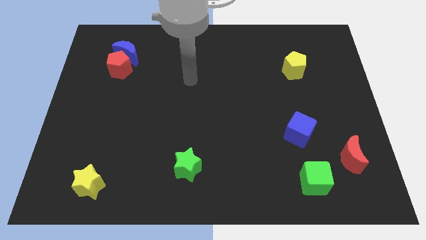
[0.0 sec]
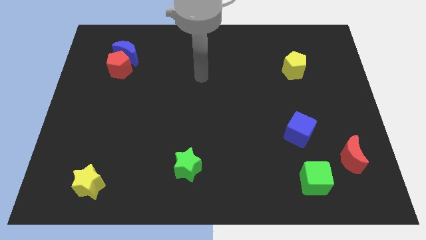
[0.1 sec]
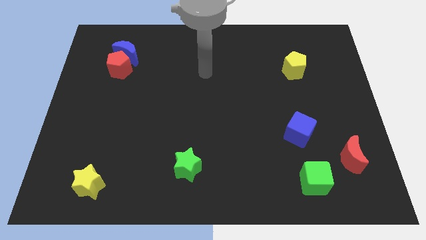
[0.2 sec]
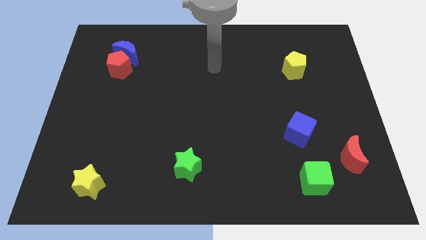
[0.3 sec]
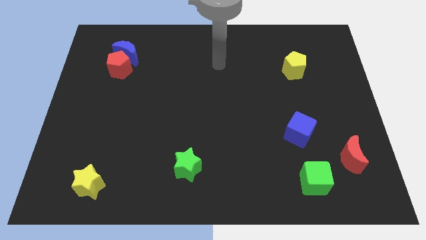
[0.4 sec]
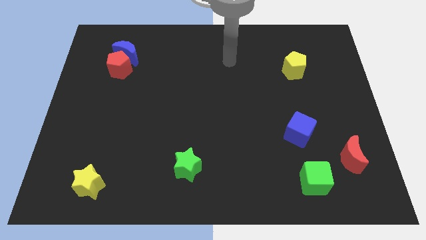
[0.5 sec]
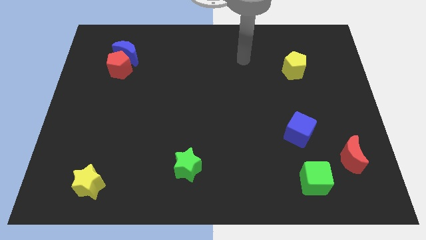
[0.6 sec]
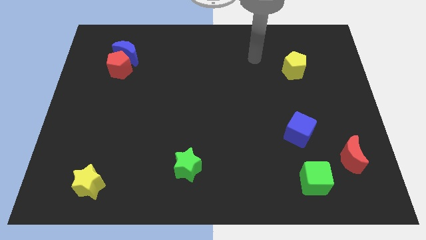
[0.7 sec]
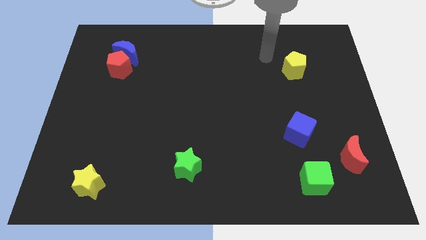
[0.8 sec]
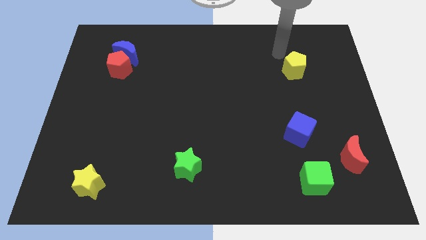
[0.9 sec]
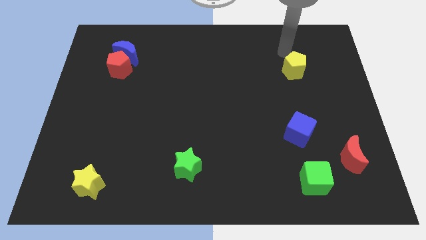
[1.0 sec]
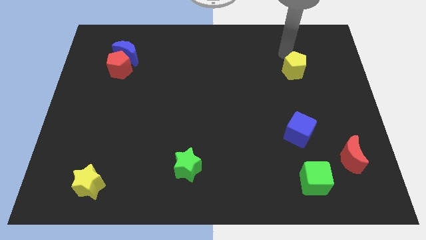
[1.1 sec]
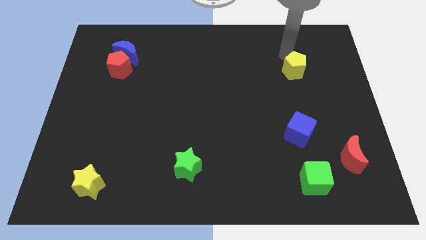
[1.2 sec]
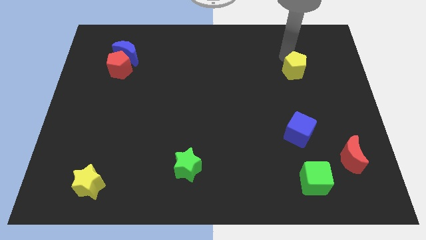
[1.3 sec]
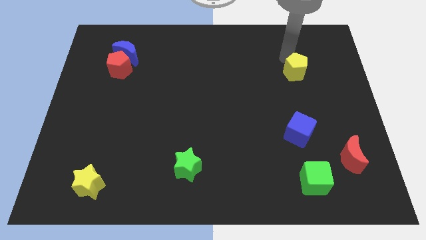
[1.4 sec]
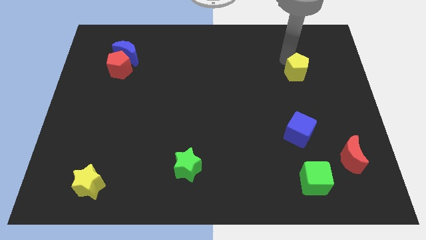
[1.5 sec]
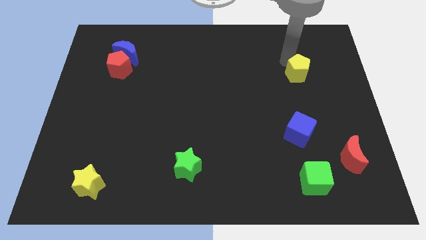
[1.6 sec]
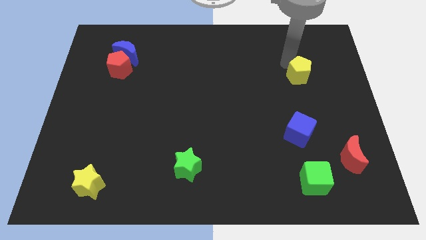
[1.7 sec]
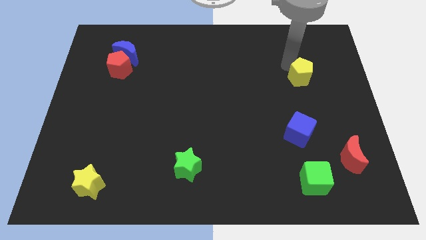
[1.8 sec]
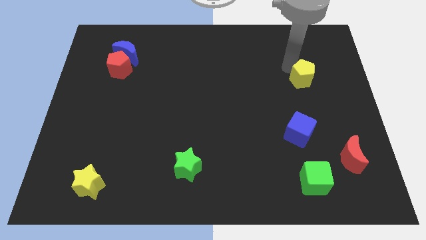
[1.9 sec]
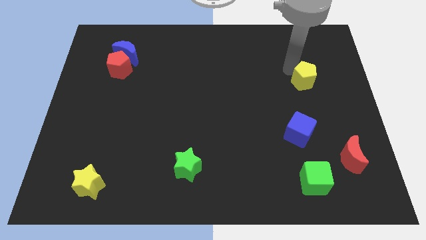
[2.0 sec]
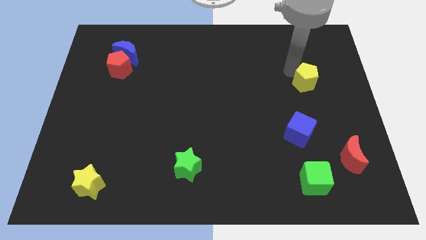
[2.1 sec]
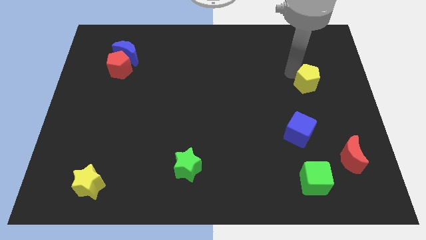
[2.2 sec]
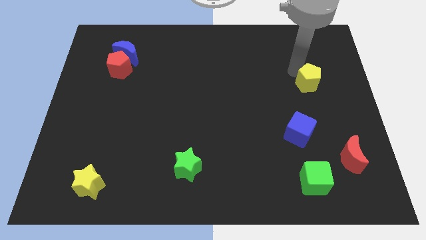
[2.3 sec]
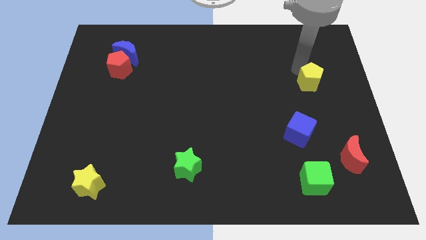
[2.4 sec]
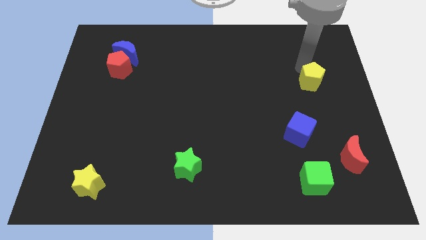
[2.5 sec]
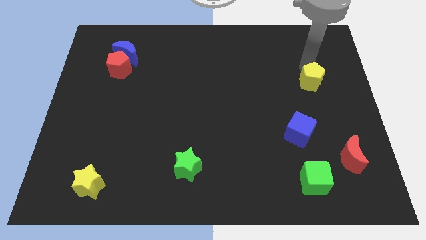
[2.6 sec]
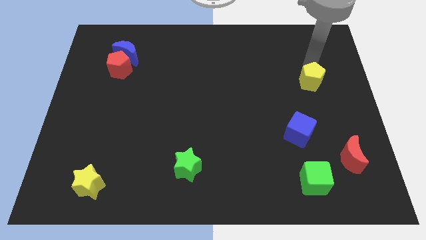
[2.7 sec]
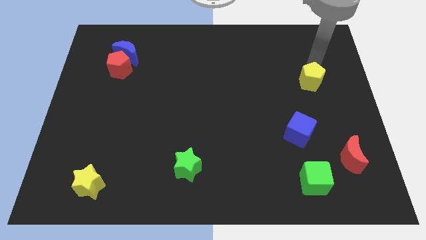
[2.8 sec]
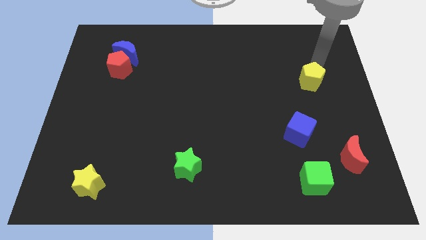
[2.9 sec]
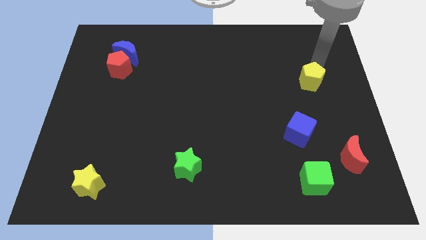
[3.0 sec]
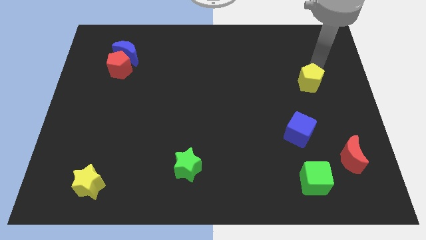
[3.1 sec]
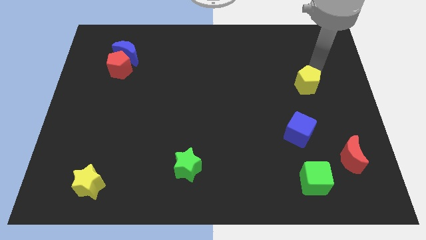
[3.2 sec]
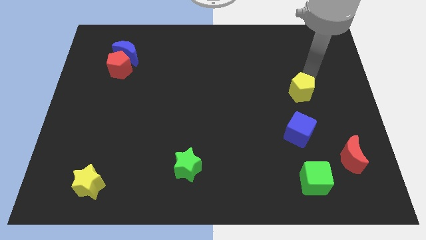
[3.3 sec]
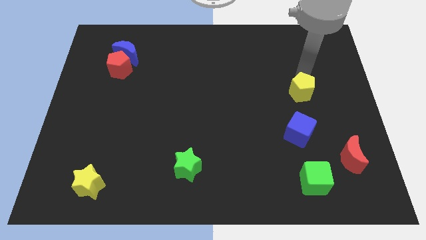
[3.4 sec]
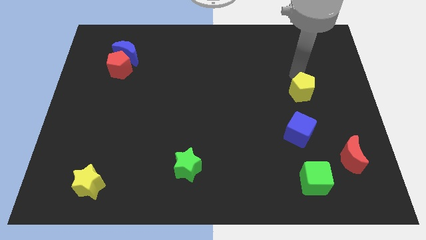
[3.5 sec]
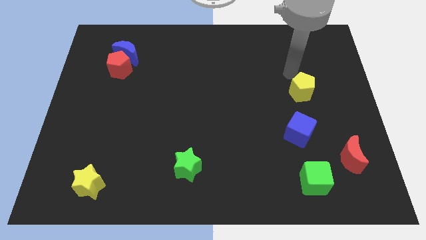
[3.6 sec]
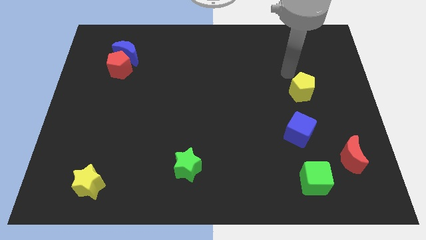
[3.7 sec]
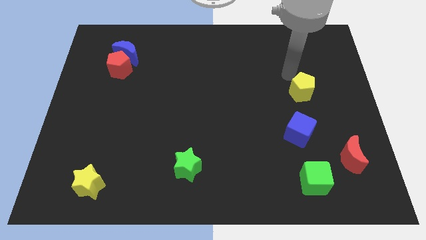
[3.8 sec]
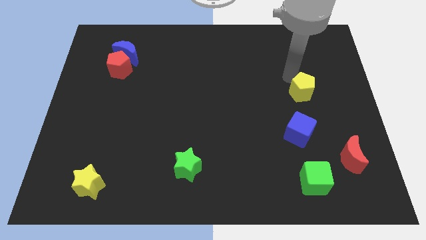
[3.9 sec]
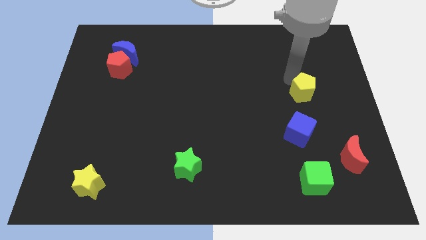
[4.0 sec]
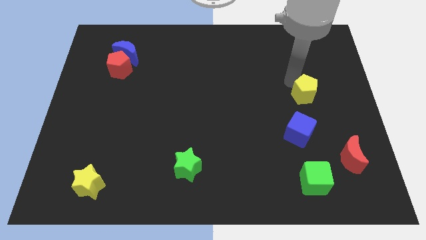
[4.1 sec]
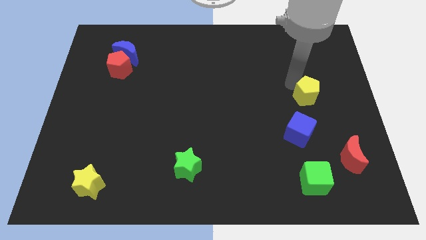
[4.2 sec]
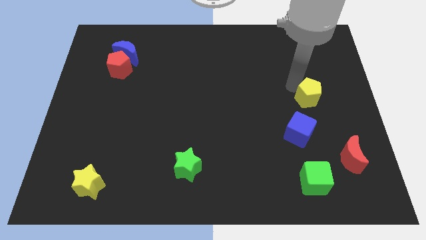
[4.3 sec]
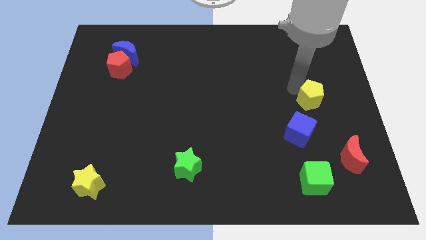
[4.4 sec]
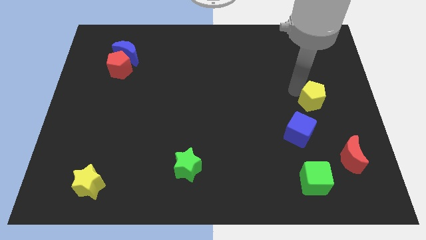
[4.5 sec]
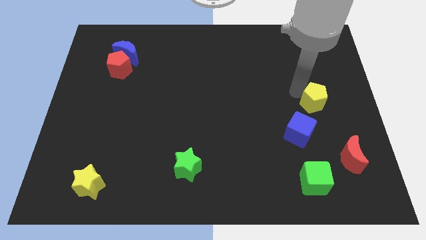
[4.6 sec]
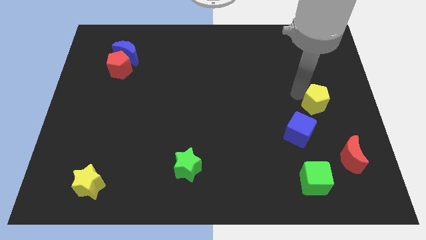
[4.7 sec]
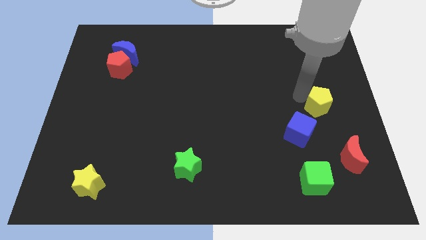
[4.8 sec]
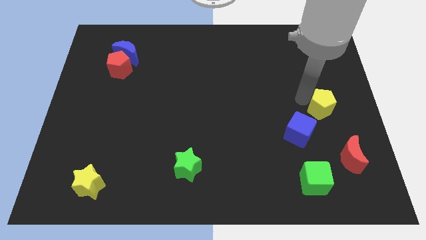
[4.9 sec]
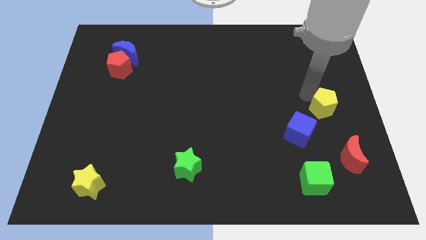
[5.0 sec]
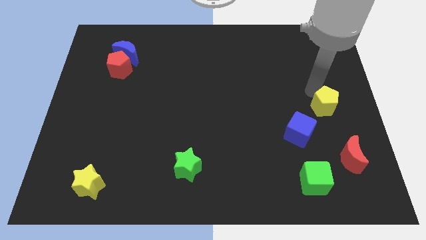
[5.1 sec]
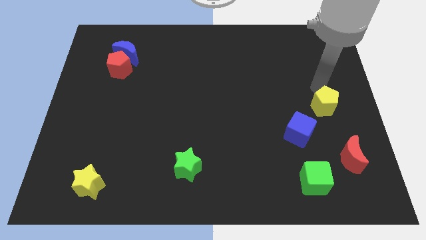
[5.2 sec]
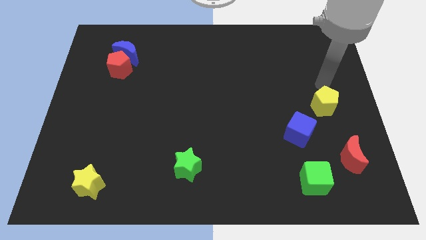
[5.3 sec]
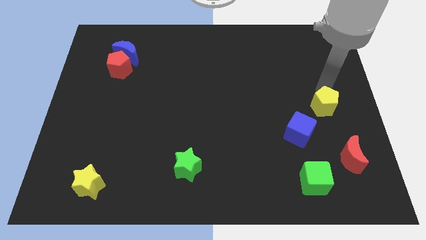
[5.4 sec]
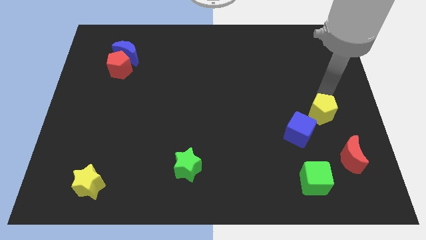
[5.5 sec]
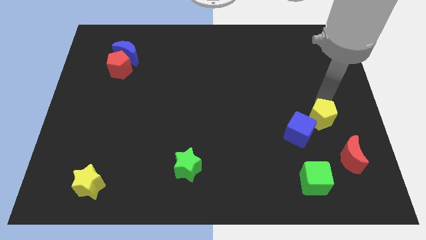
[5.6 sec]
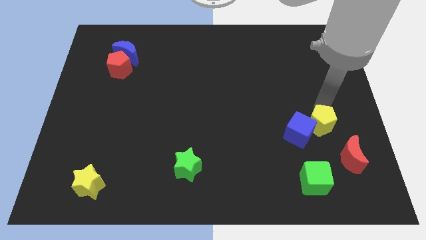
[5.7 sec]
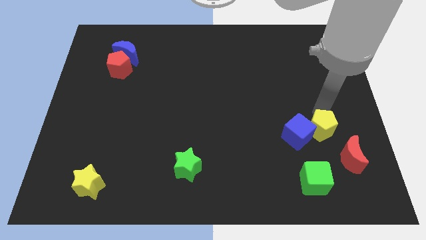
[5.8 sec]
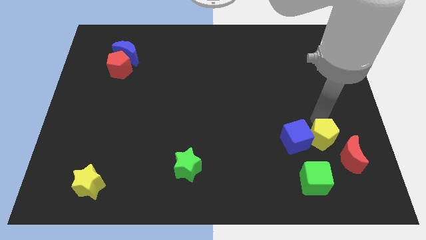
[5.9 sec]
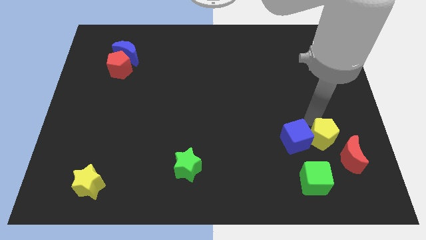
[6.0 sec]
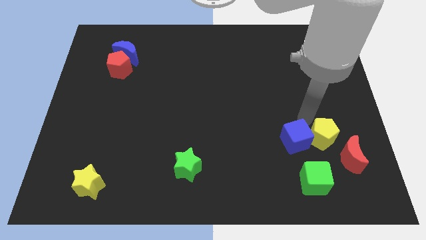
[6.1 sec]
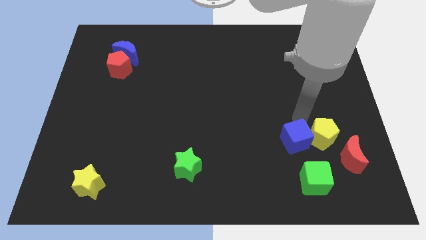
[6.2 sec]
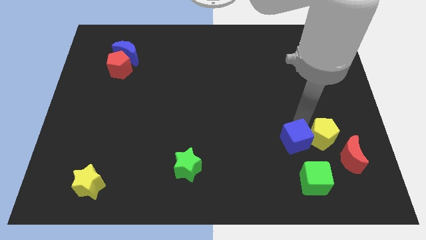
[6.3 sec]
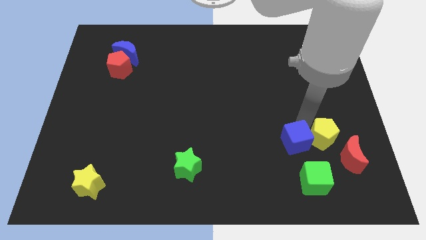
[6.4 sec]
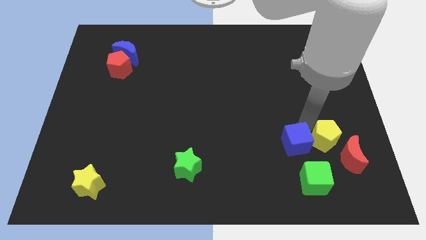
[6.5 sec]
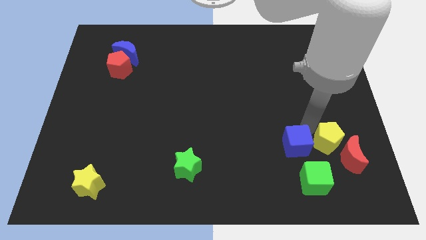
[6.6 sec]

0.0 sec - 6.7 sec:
slide the yellow pentagon towards the red moon
